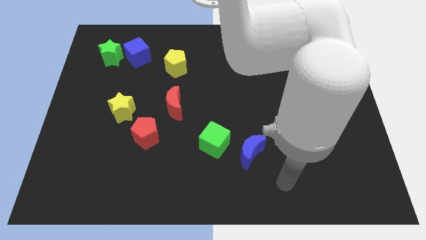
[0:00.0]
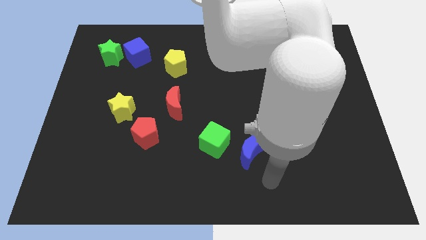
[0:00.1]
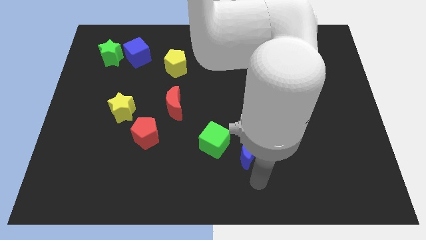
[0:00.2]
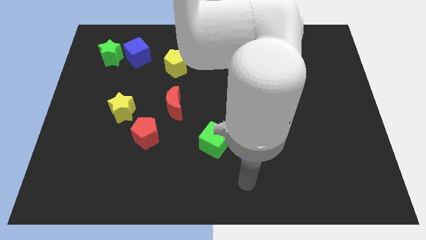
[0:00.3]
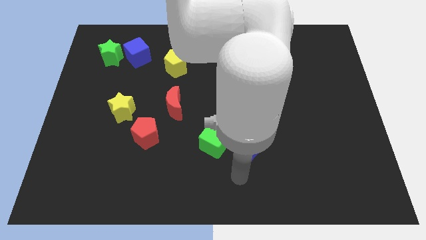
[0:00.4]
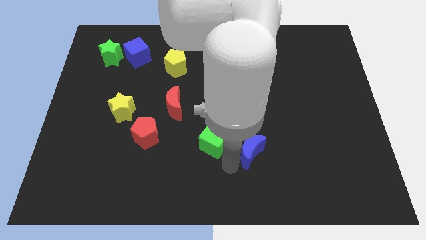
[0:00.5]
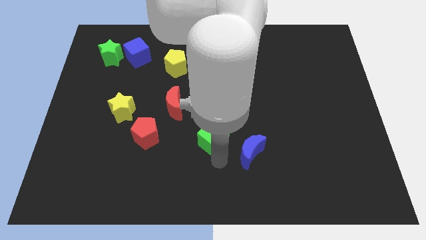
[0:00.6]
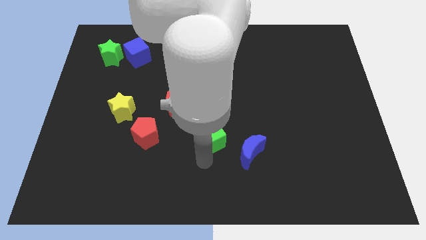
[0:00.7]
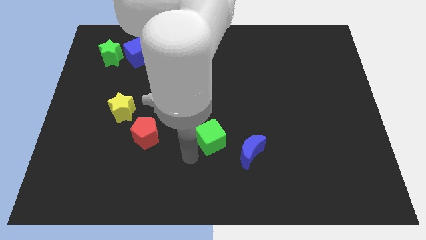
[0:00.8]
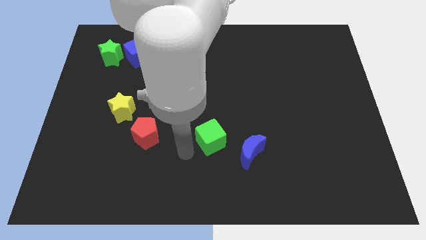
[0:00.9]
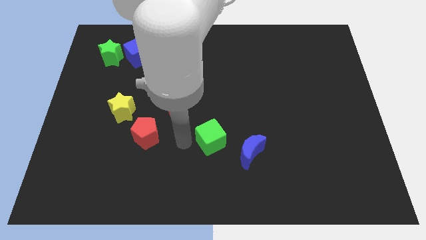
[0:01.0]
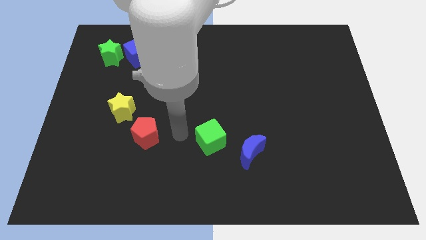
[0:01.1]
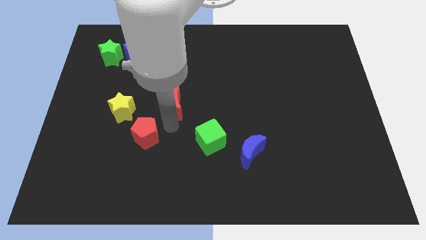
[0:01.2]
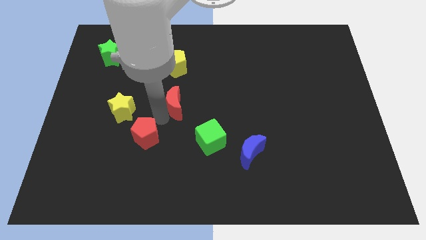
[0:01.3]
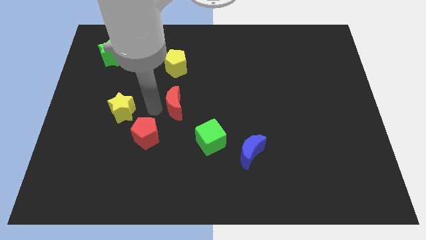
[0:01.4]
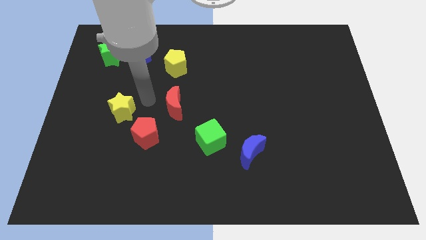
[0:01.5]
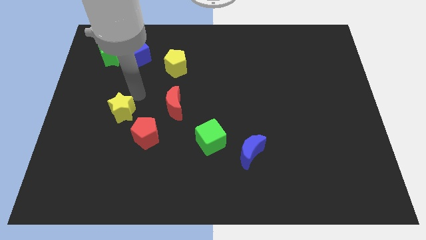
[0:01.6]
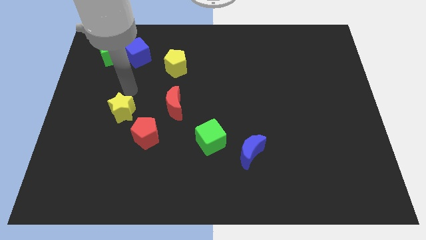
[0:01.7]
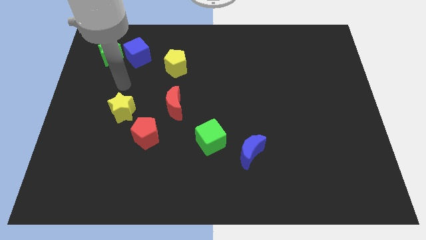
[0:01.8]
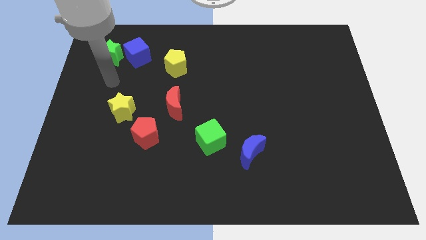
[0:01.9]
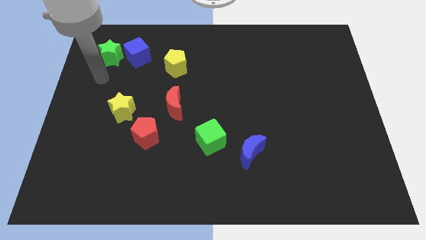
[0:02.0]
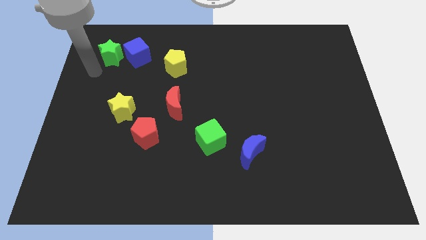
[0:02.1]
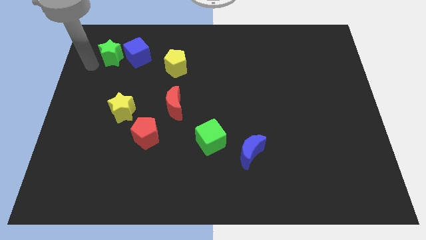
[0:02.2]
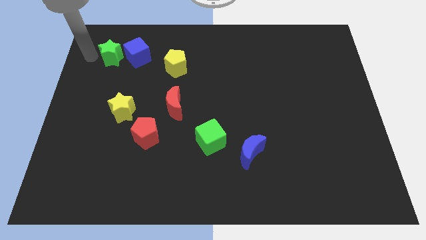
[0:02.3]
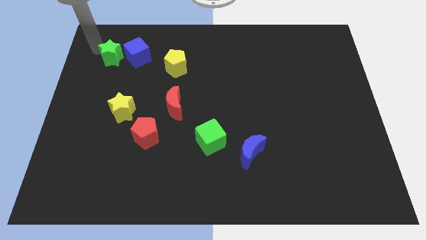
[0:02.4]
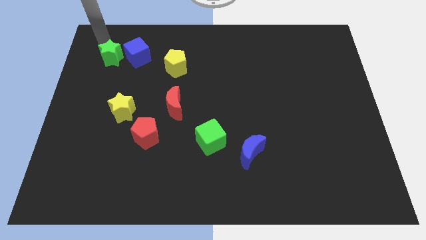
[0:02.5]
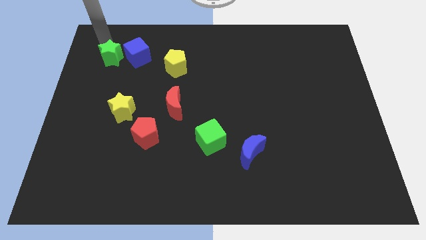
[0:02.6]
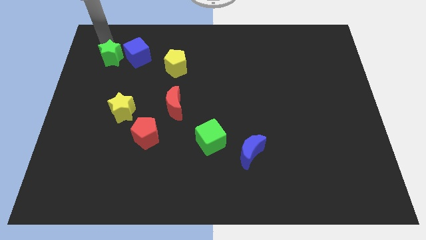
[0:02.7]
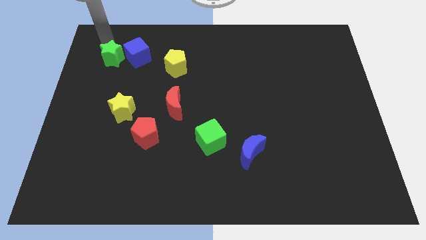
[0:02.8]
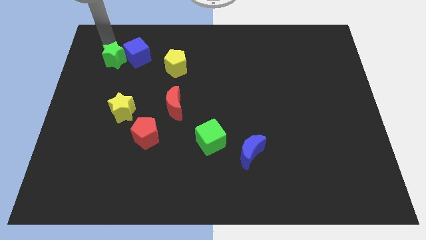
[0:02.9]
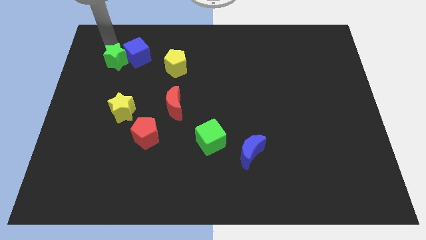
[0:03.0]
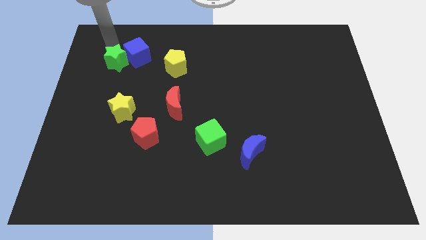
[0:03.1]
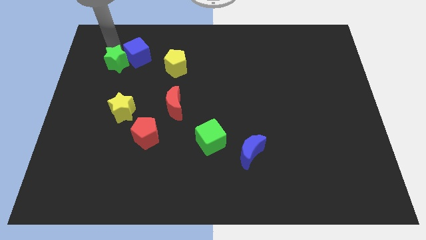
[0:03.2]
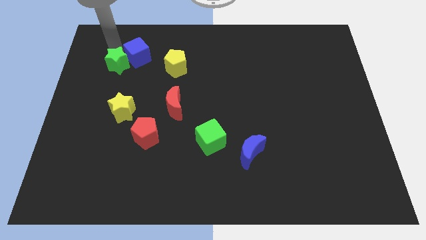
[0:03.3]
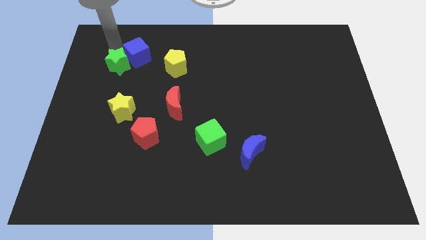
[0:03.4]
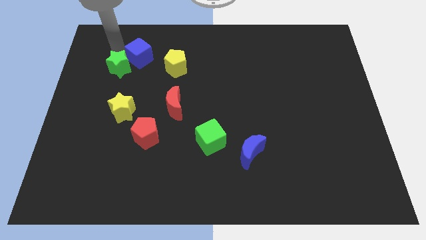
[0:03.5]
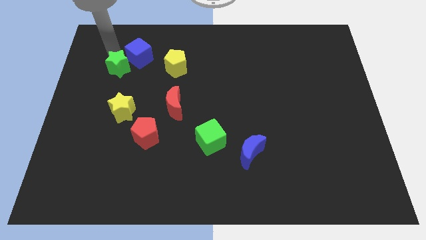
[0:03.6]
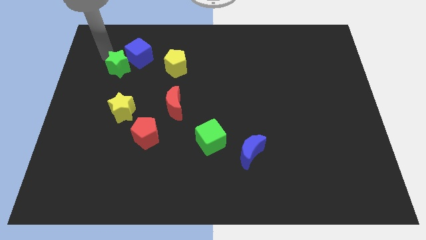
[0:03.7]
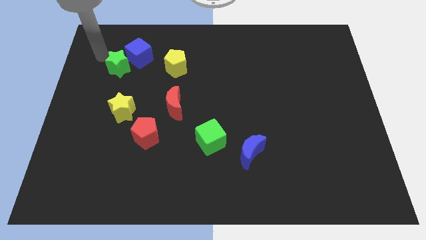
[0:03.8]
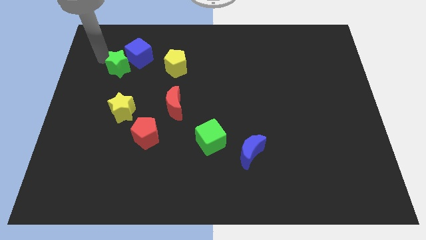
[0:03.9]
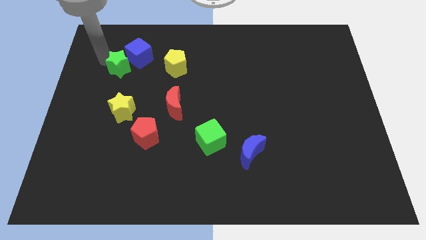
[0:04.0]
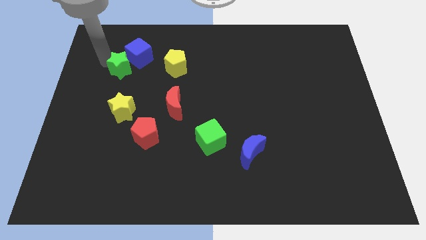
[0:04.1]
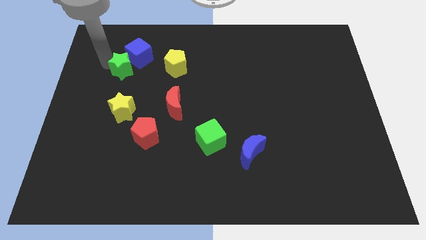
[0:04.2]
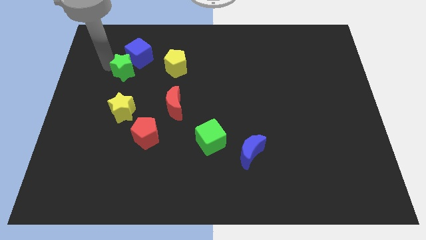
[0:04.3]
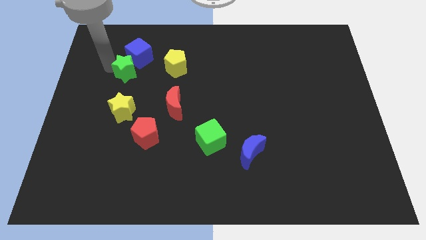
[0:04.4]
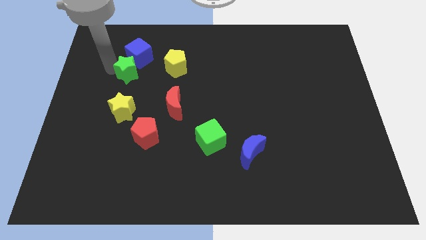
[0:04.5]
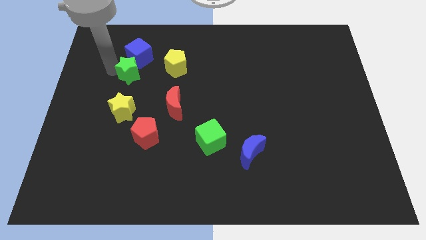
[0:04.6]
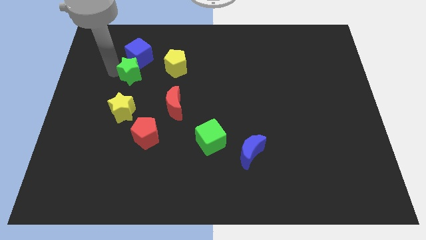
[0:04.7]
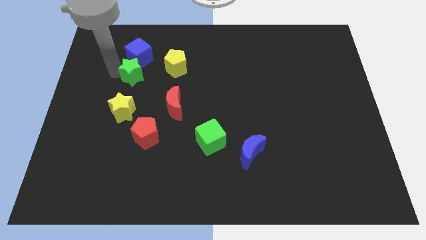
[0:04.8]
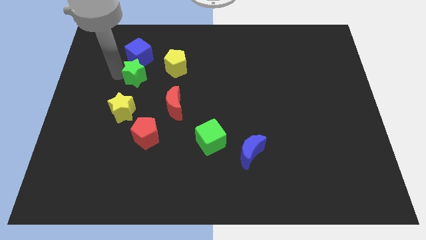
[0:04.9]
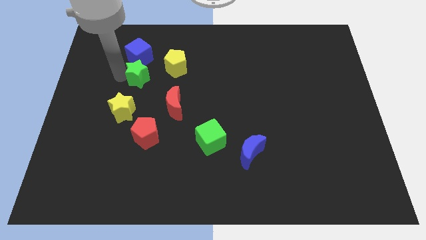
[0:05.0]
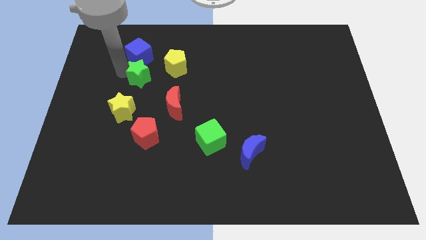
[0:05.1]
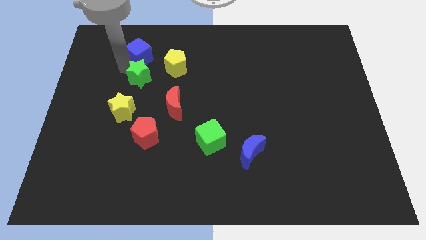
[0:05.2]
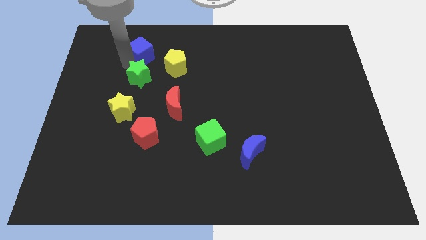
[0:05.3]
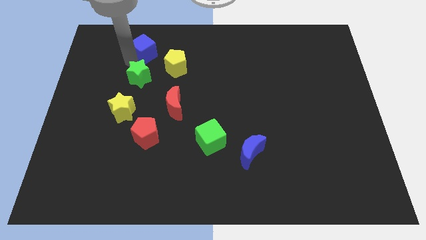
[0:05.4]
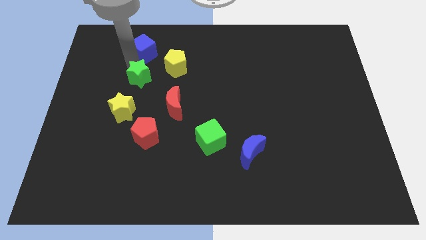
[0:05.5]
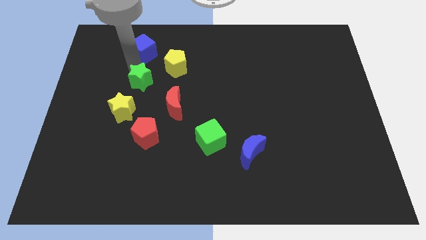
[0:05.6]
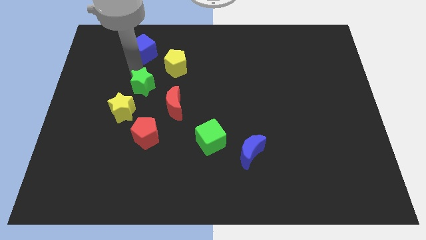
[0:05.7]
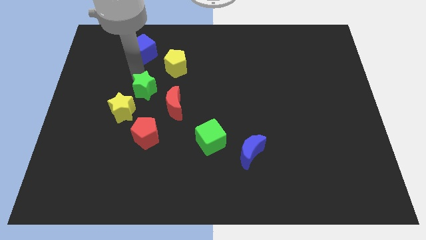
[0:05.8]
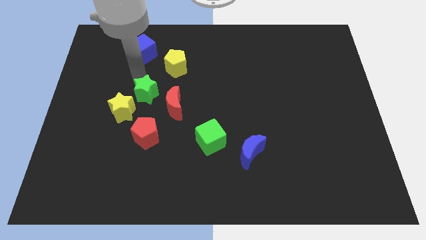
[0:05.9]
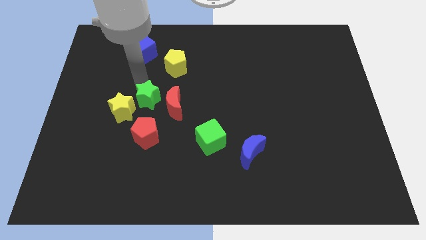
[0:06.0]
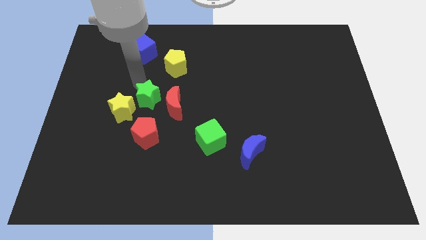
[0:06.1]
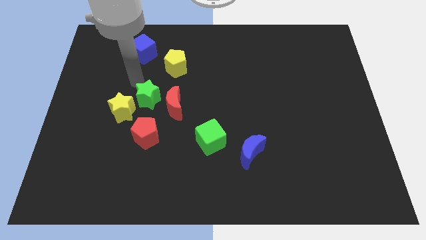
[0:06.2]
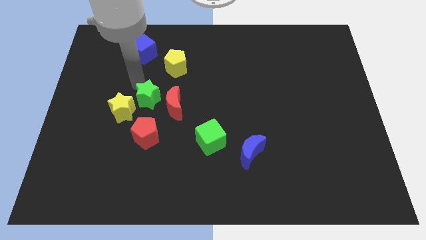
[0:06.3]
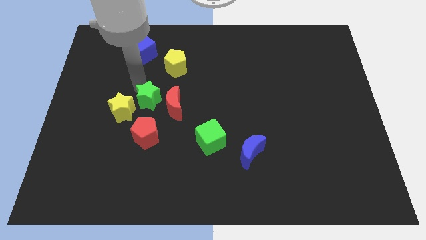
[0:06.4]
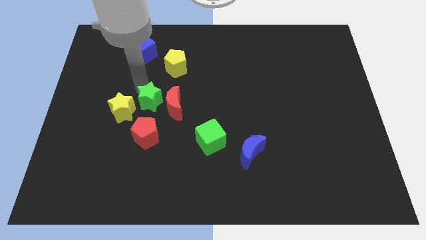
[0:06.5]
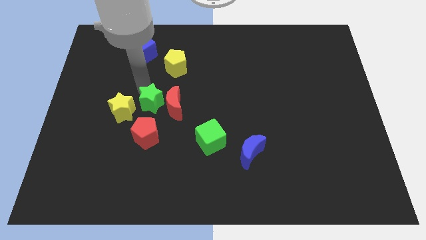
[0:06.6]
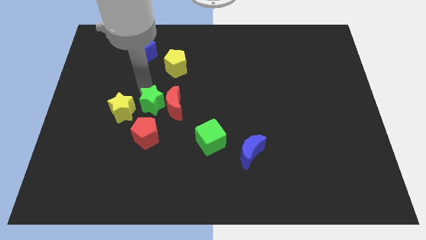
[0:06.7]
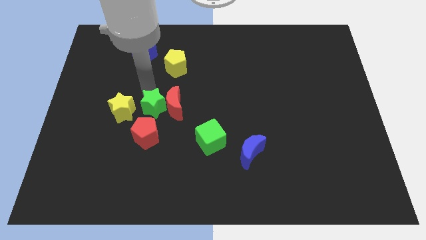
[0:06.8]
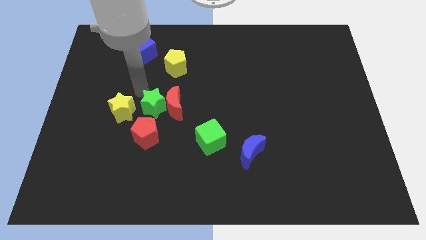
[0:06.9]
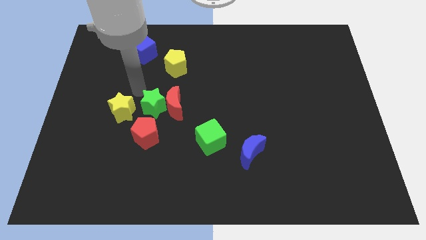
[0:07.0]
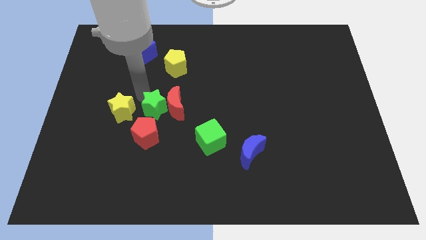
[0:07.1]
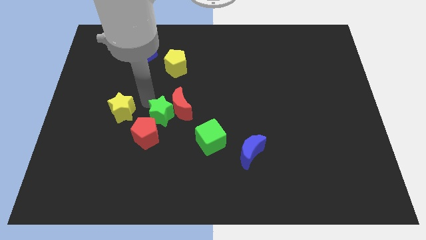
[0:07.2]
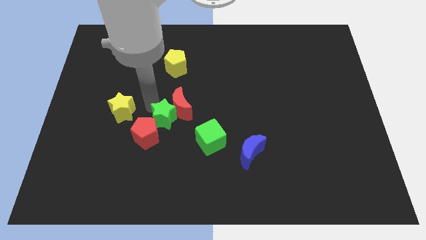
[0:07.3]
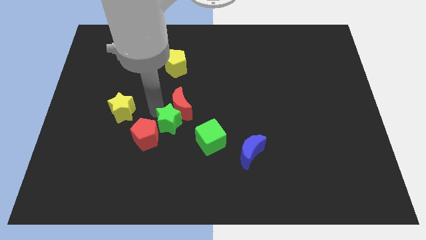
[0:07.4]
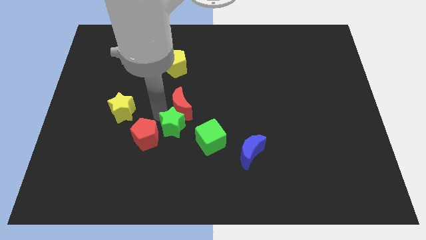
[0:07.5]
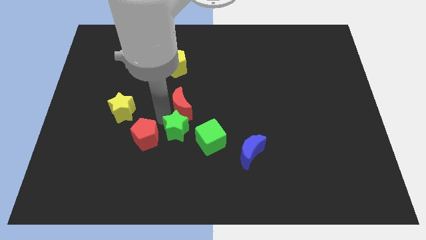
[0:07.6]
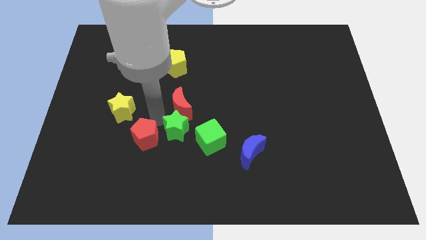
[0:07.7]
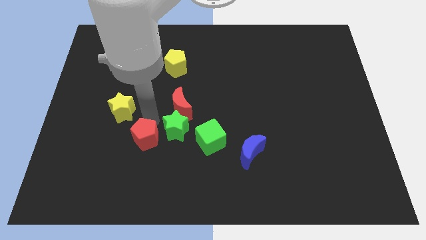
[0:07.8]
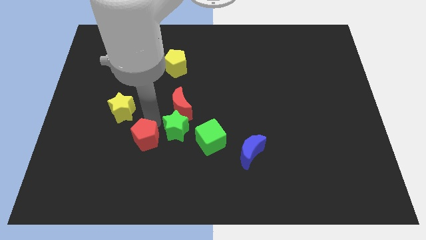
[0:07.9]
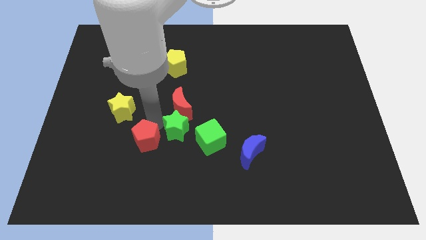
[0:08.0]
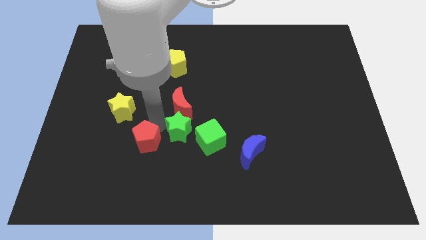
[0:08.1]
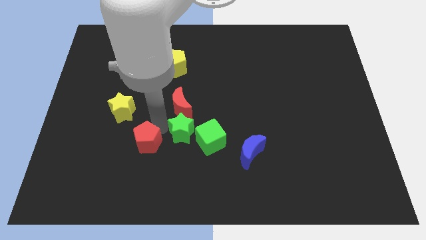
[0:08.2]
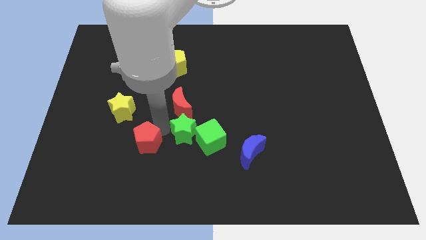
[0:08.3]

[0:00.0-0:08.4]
move the green star to the green cube
